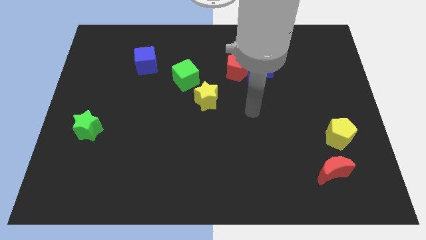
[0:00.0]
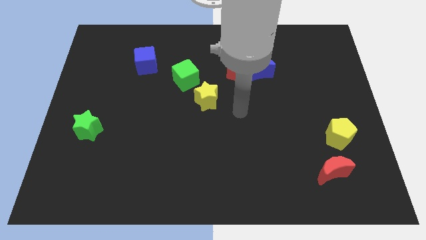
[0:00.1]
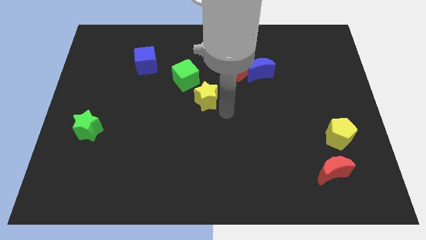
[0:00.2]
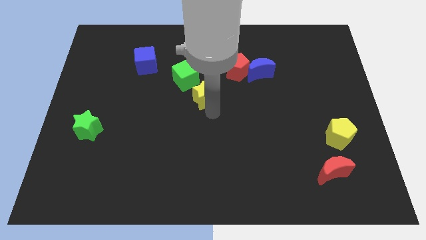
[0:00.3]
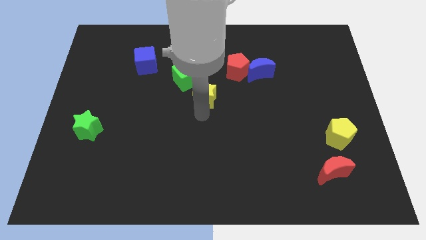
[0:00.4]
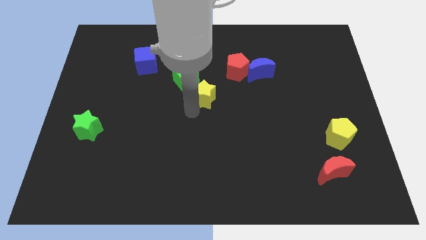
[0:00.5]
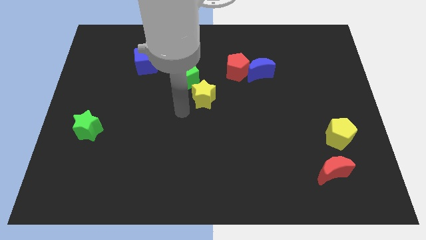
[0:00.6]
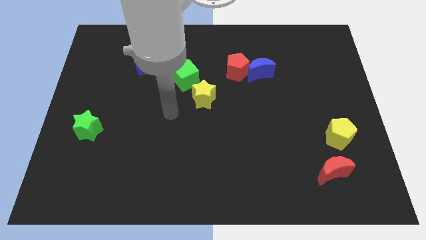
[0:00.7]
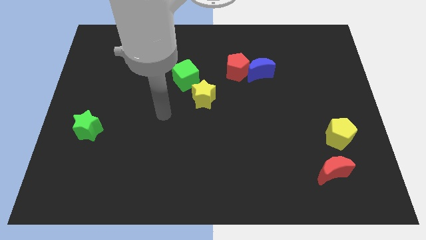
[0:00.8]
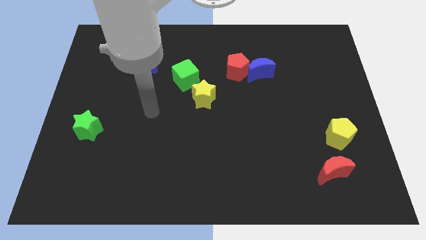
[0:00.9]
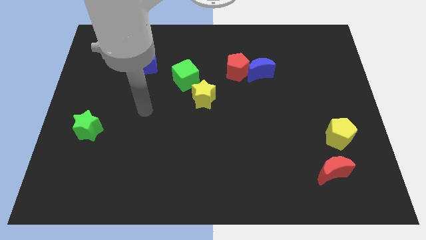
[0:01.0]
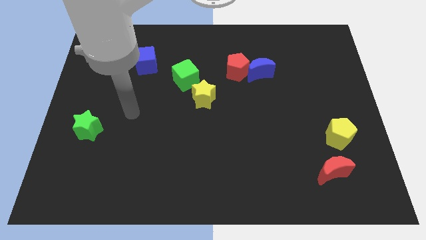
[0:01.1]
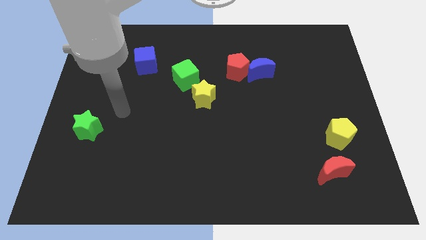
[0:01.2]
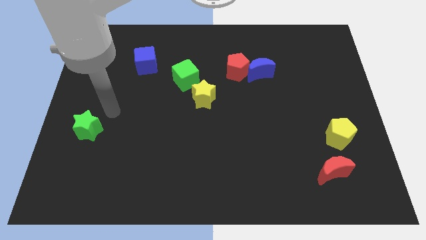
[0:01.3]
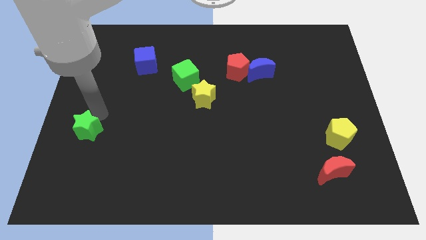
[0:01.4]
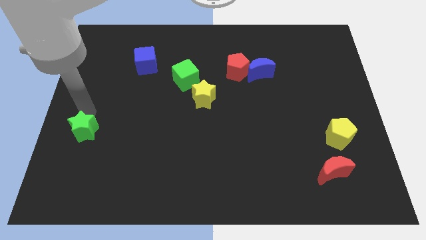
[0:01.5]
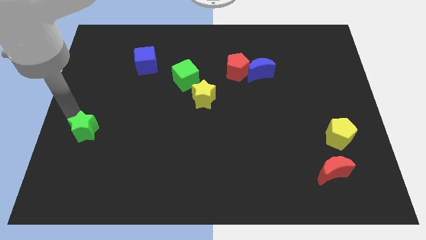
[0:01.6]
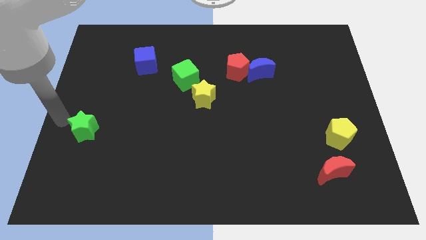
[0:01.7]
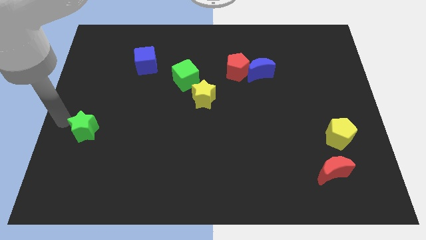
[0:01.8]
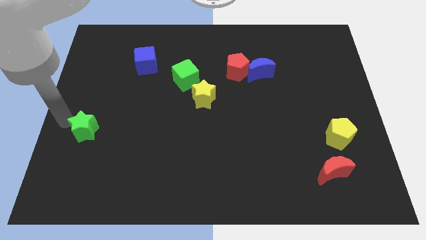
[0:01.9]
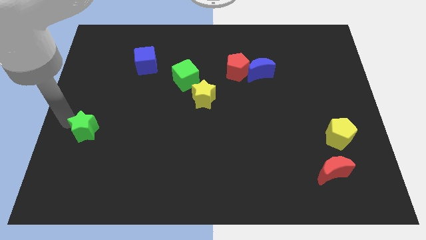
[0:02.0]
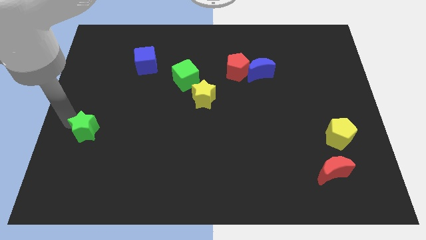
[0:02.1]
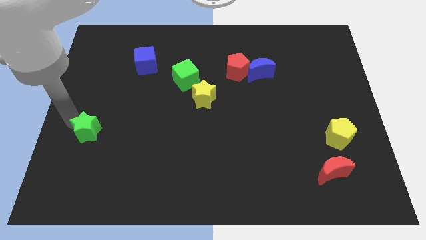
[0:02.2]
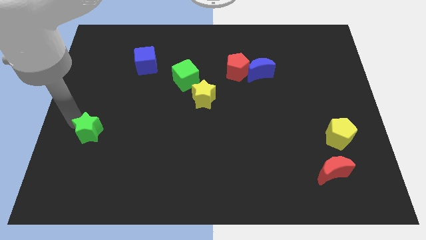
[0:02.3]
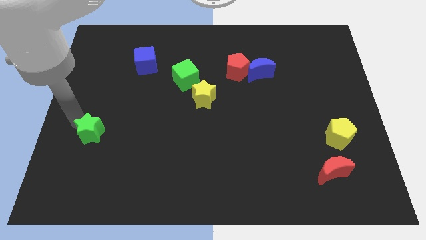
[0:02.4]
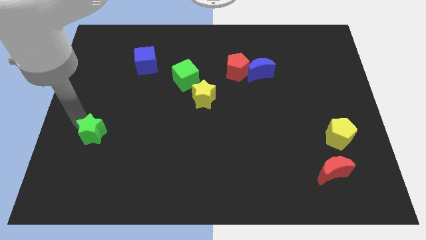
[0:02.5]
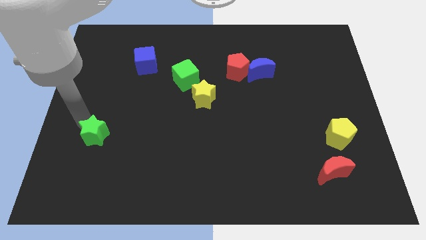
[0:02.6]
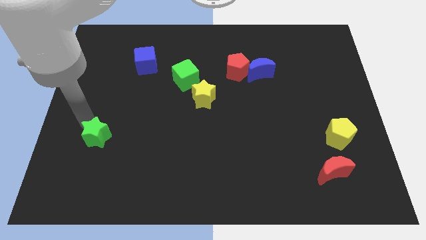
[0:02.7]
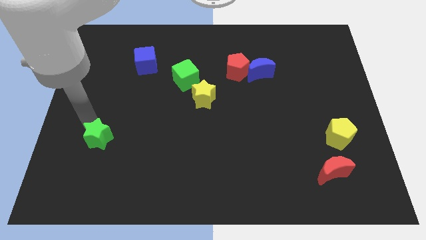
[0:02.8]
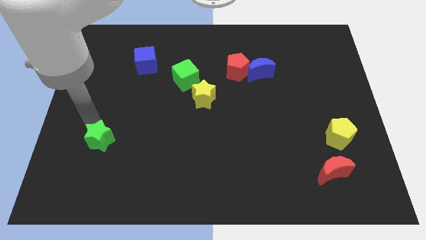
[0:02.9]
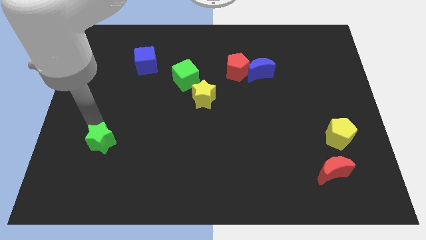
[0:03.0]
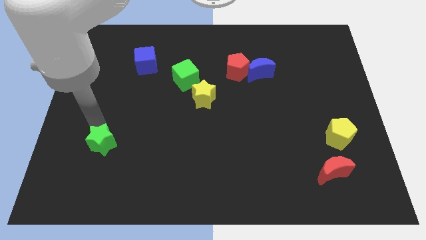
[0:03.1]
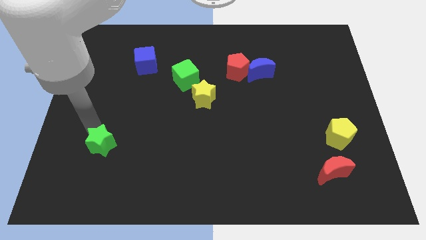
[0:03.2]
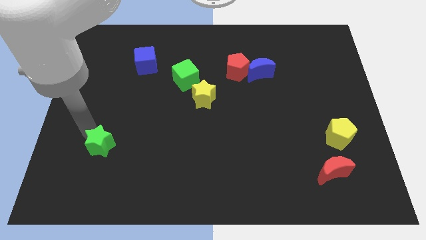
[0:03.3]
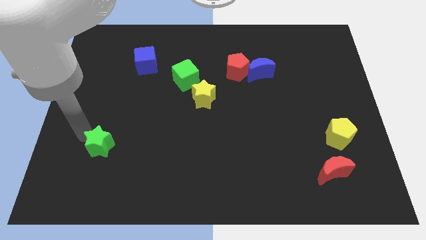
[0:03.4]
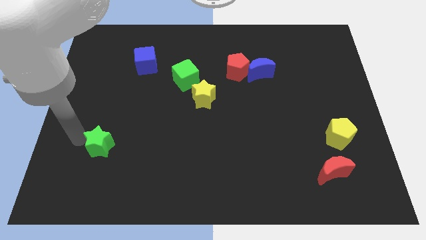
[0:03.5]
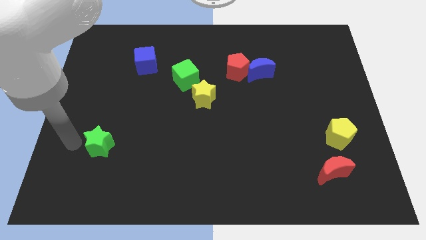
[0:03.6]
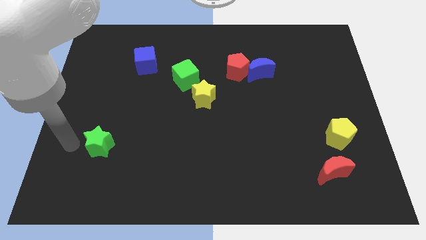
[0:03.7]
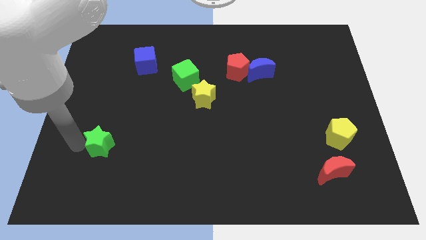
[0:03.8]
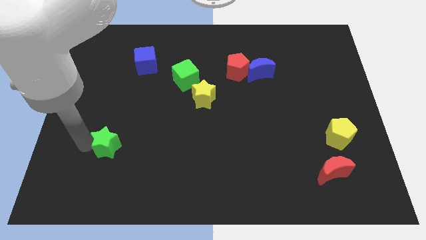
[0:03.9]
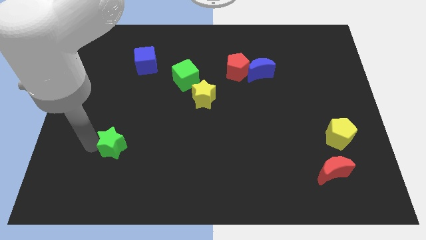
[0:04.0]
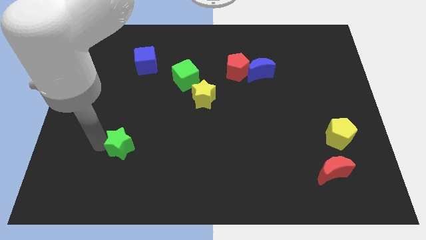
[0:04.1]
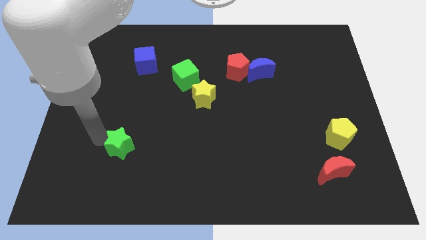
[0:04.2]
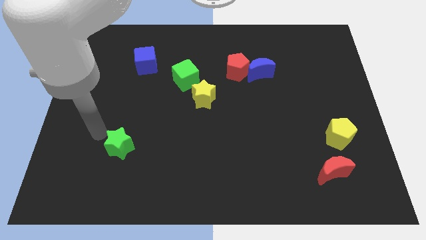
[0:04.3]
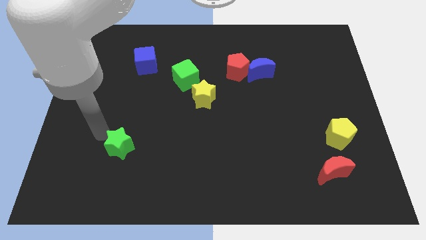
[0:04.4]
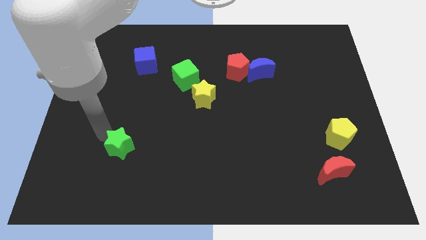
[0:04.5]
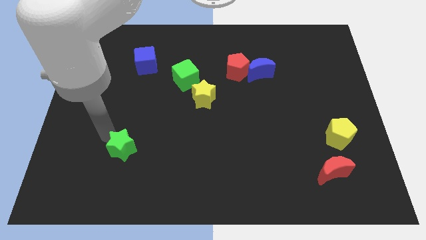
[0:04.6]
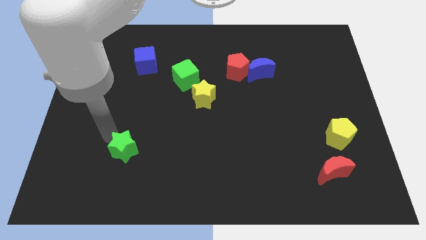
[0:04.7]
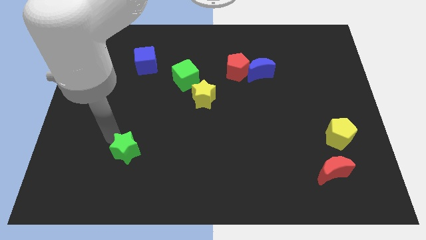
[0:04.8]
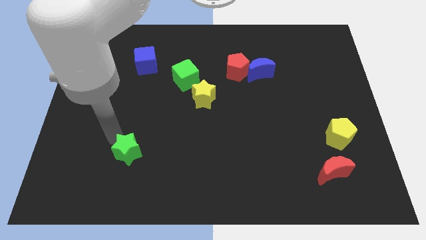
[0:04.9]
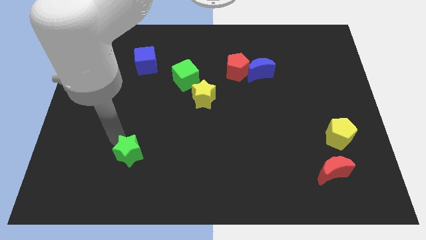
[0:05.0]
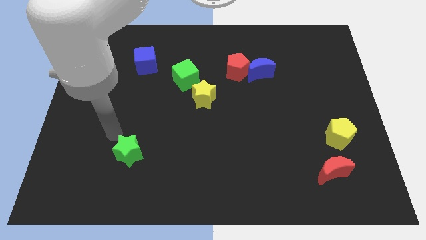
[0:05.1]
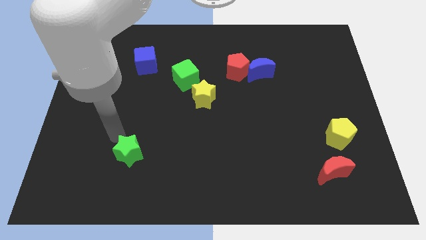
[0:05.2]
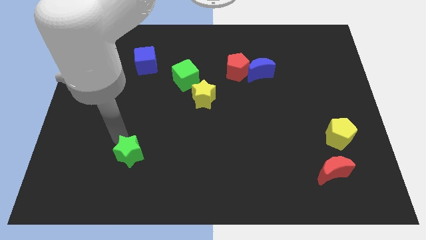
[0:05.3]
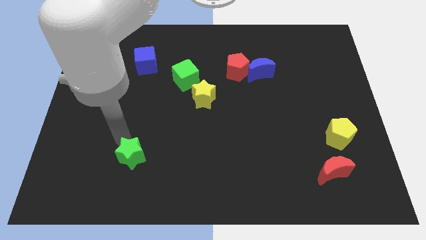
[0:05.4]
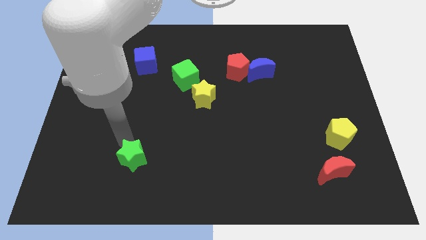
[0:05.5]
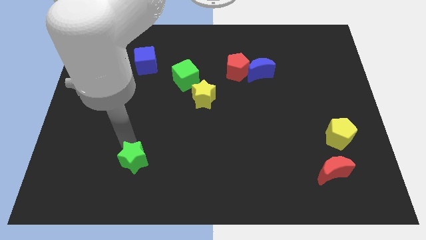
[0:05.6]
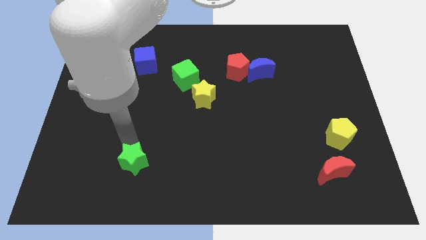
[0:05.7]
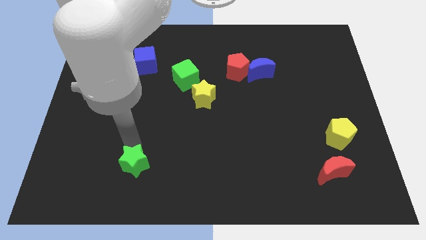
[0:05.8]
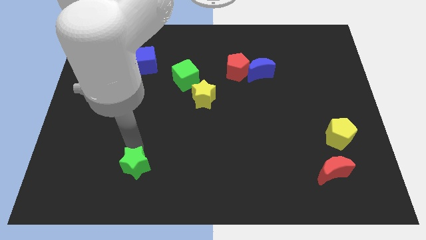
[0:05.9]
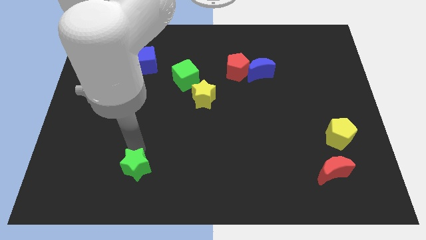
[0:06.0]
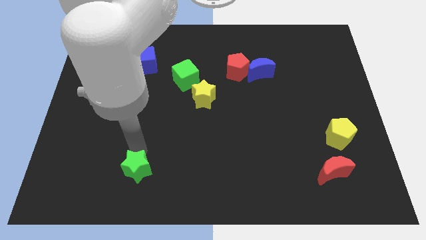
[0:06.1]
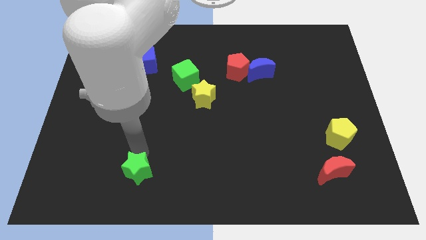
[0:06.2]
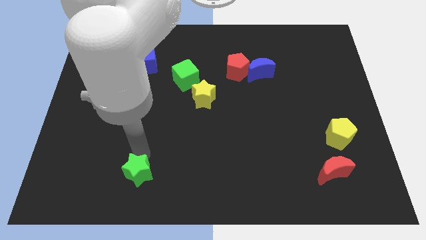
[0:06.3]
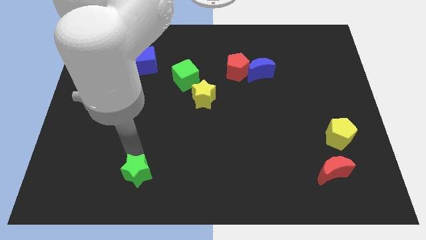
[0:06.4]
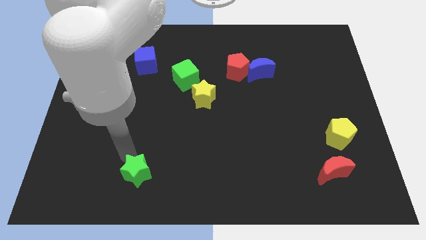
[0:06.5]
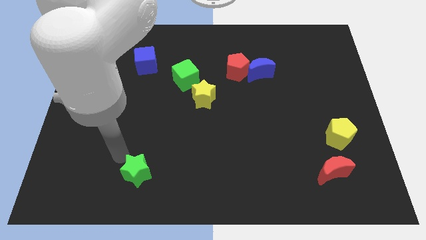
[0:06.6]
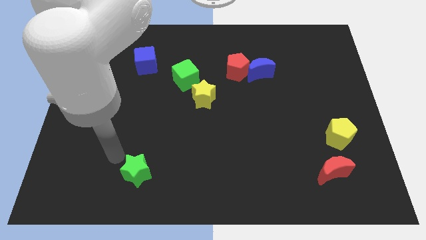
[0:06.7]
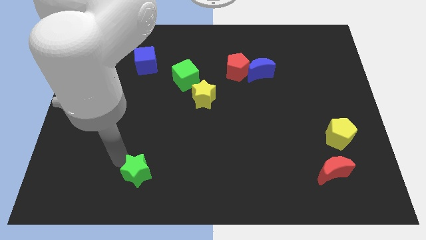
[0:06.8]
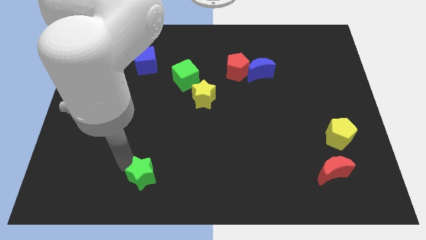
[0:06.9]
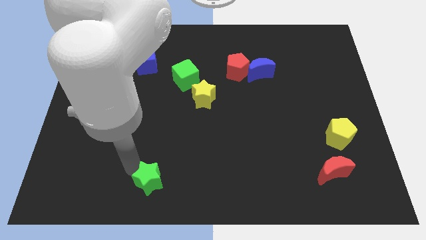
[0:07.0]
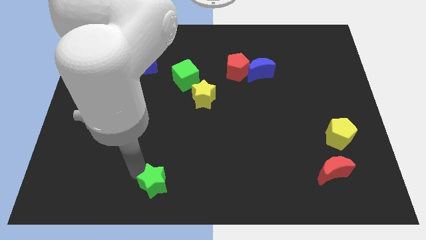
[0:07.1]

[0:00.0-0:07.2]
slide the green star to the bottom side

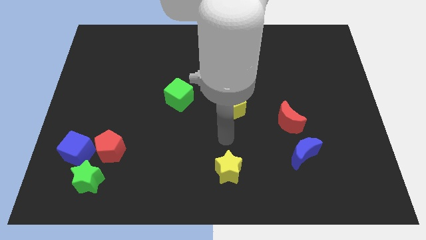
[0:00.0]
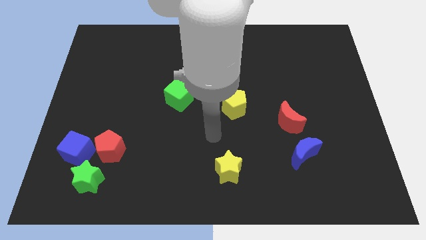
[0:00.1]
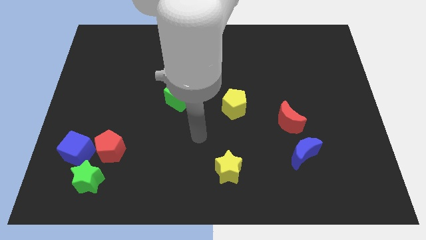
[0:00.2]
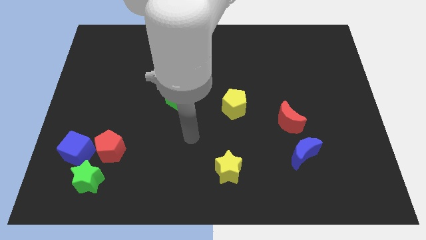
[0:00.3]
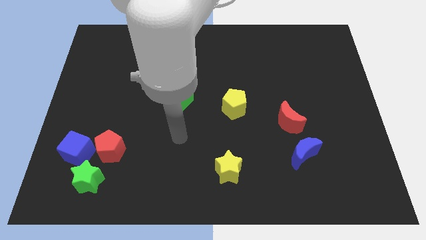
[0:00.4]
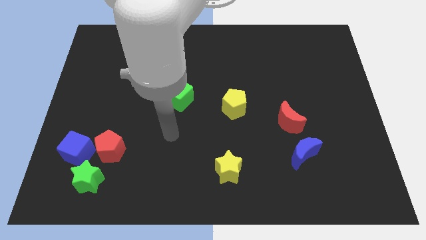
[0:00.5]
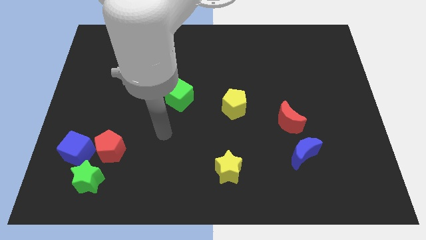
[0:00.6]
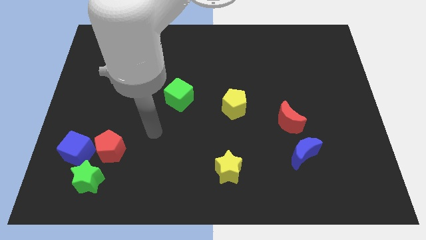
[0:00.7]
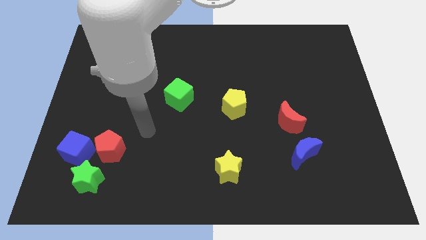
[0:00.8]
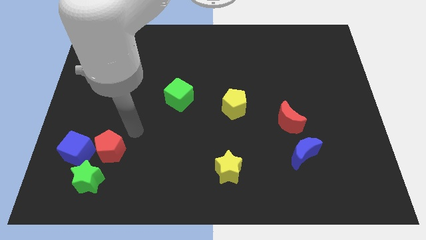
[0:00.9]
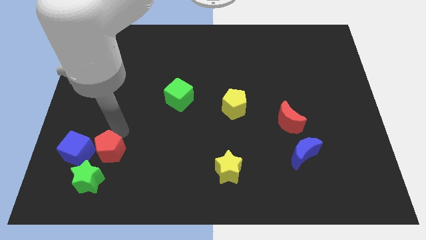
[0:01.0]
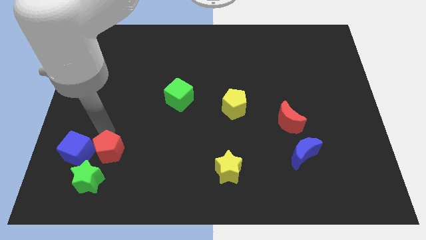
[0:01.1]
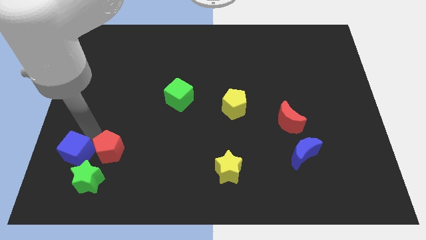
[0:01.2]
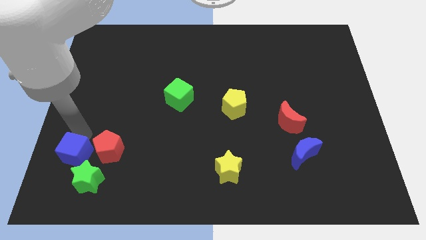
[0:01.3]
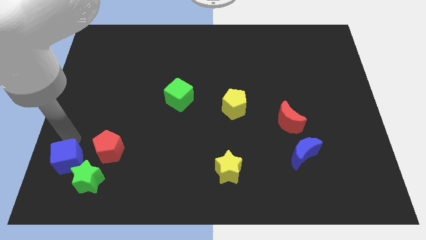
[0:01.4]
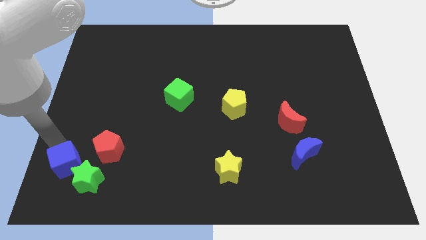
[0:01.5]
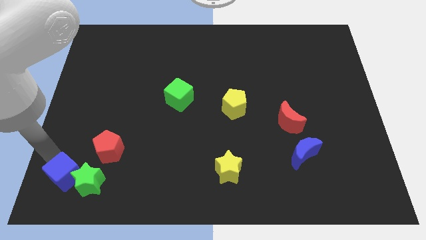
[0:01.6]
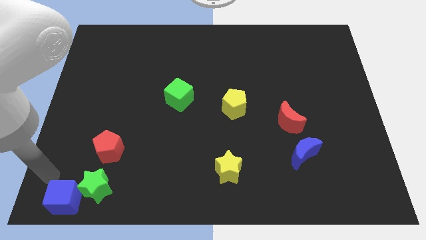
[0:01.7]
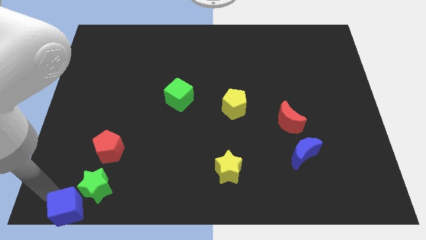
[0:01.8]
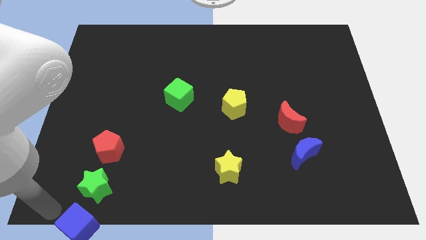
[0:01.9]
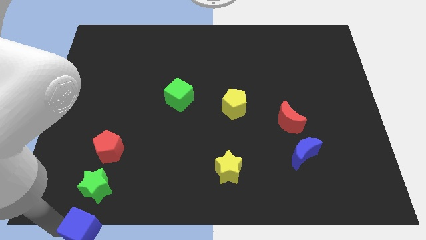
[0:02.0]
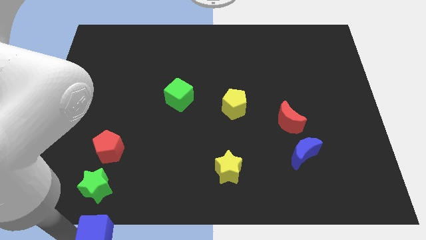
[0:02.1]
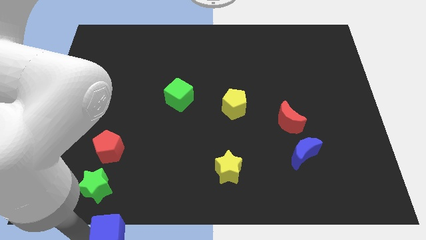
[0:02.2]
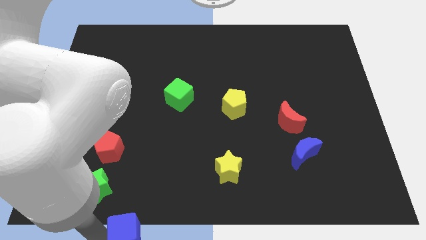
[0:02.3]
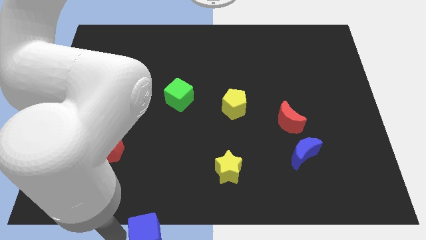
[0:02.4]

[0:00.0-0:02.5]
put the blue cube to the bottom side
